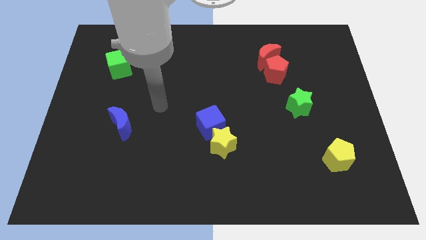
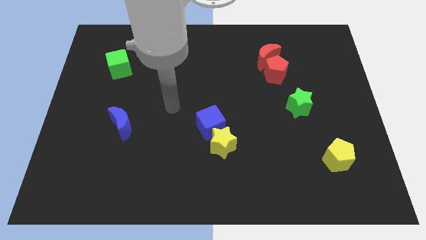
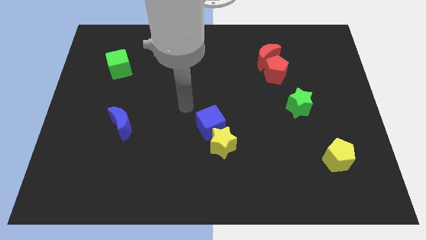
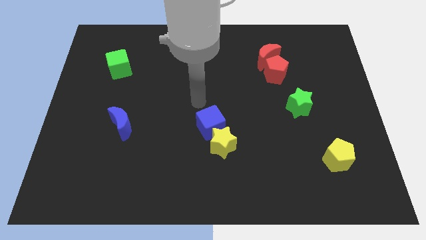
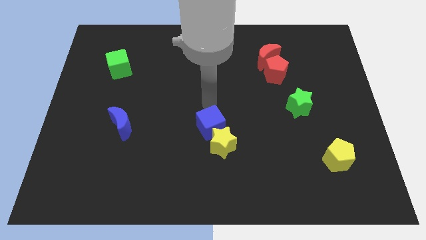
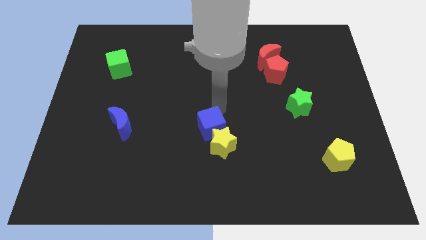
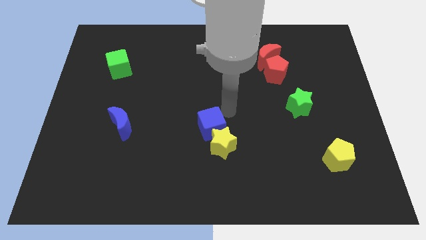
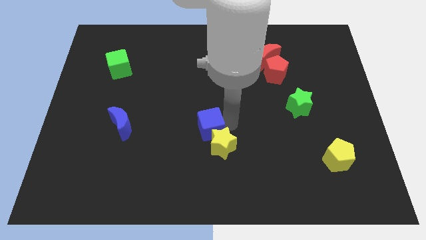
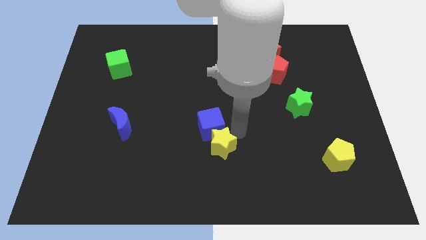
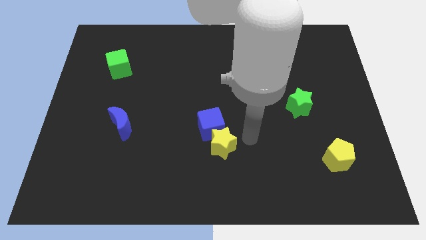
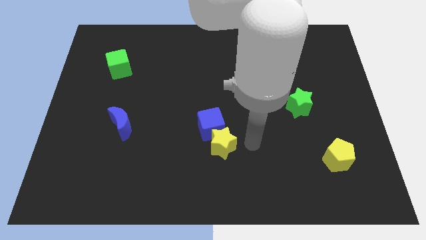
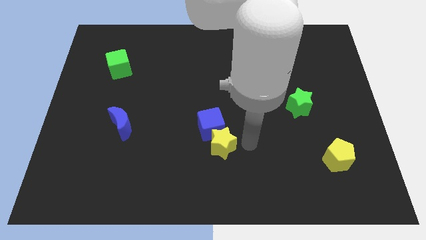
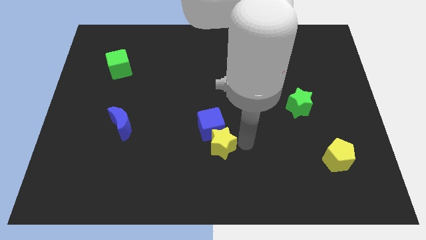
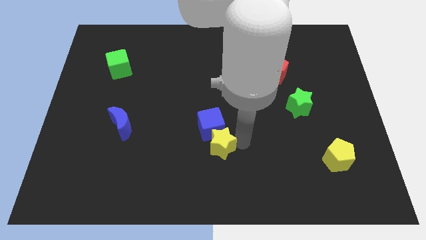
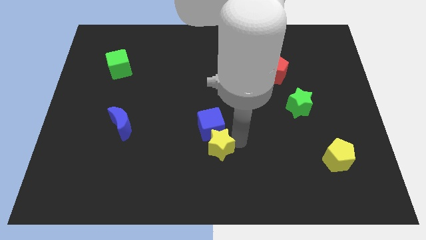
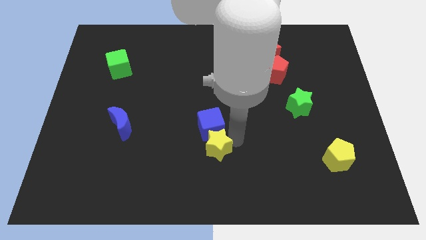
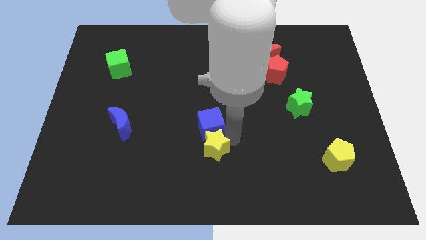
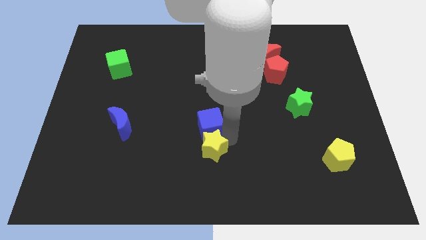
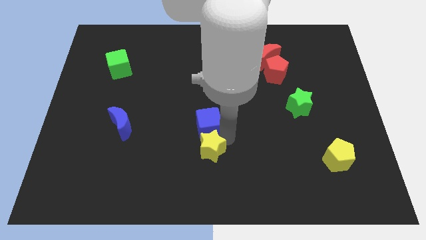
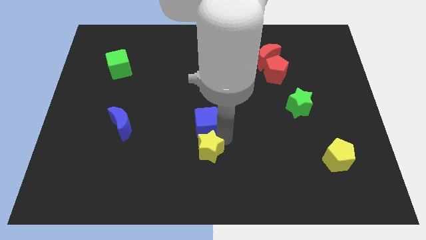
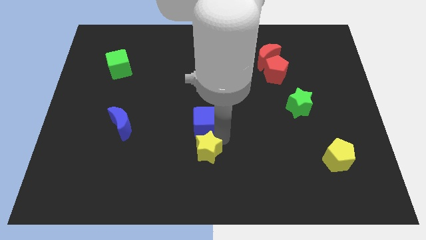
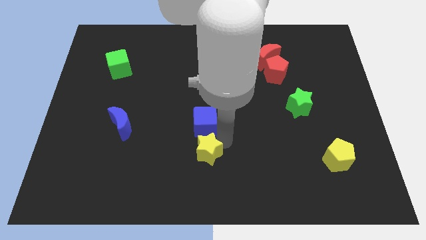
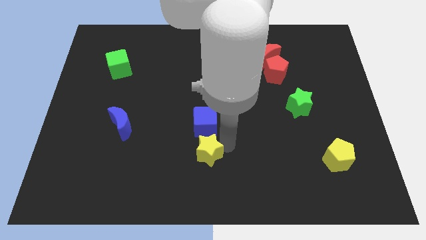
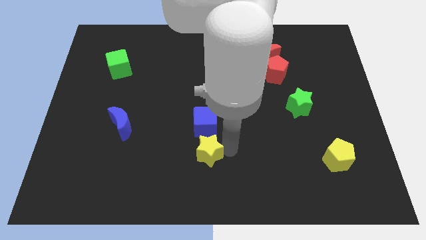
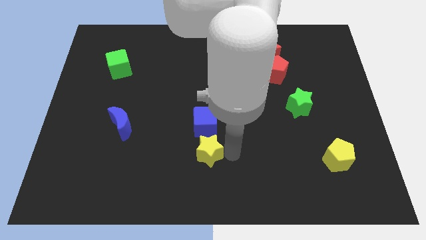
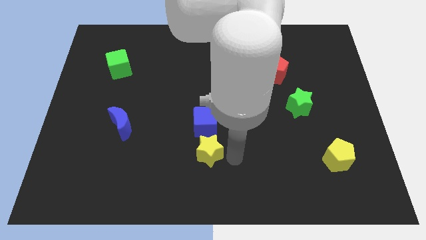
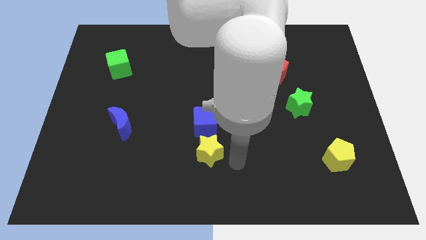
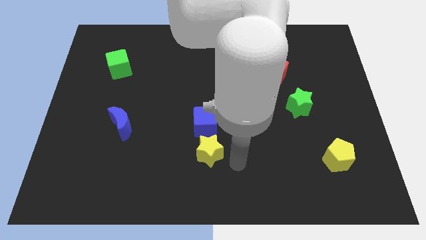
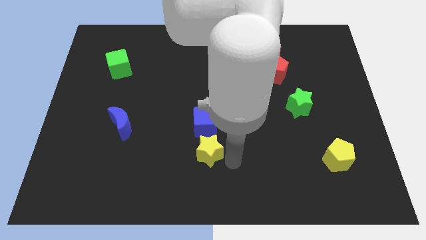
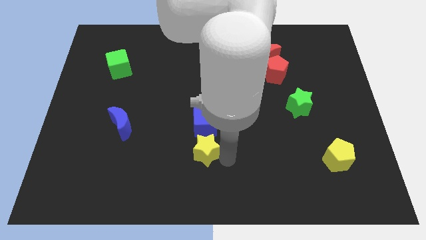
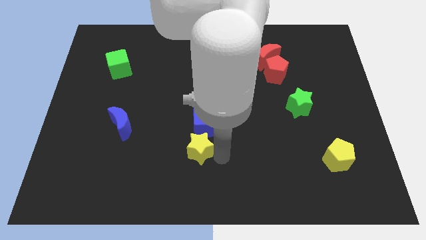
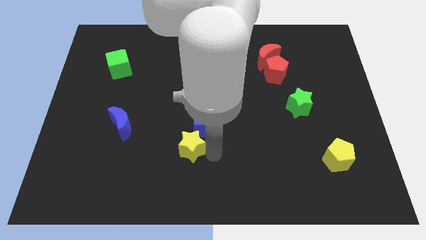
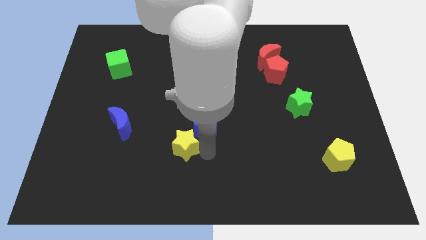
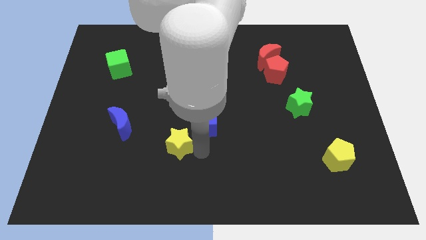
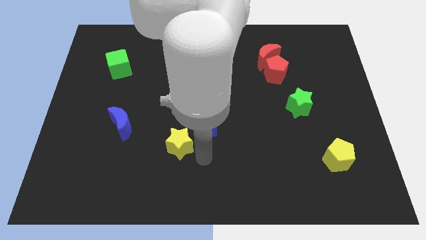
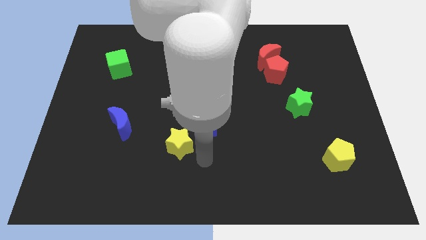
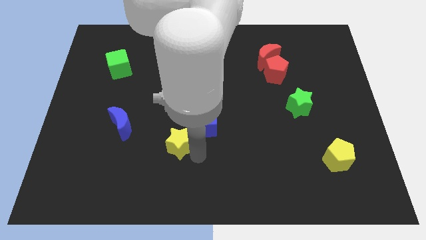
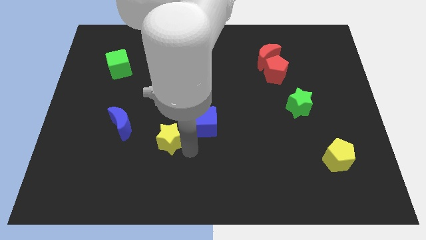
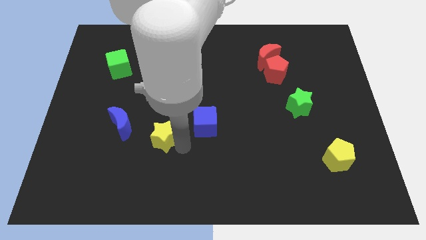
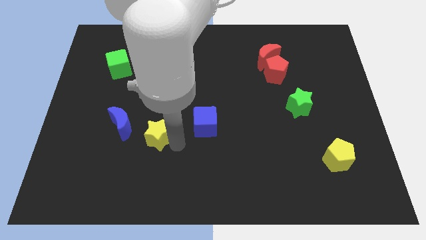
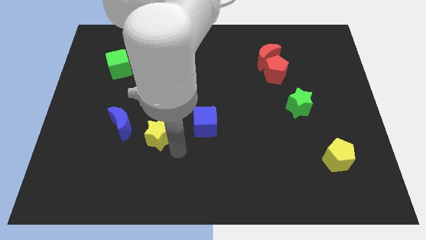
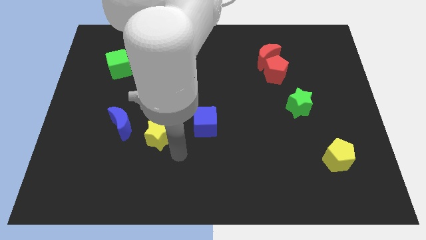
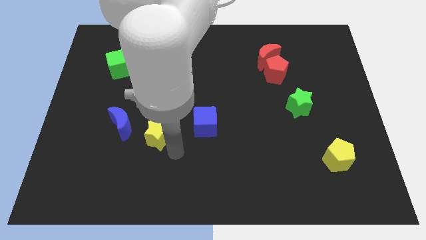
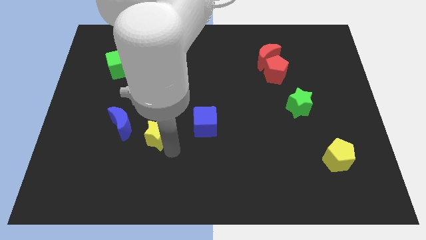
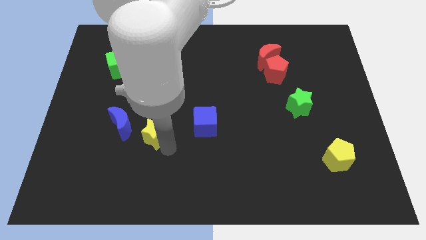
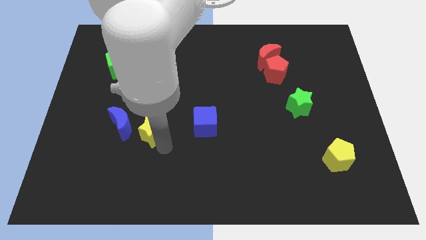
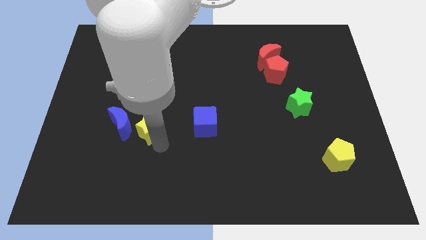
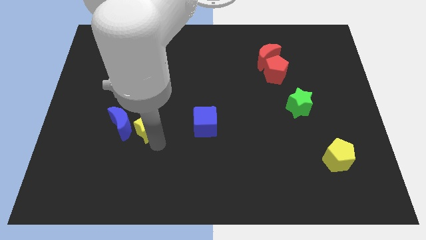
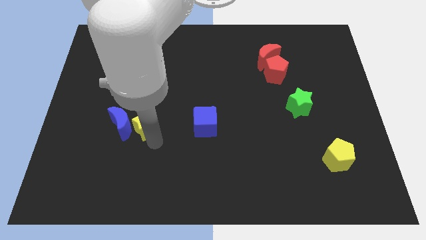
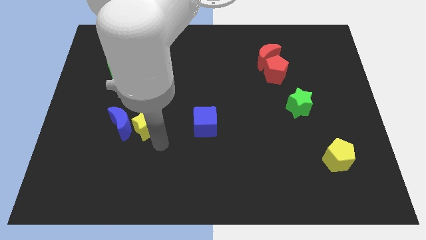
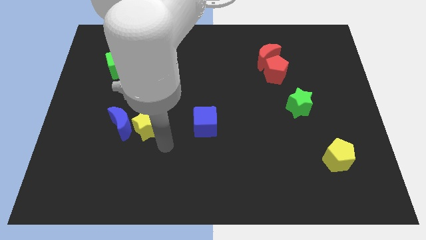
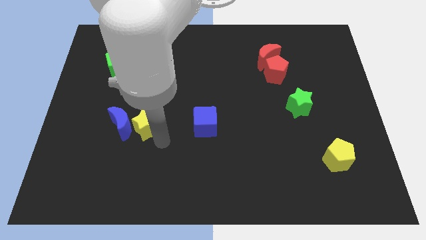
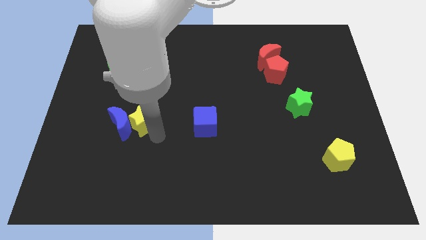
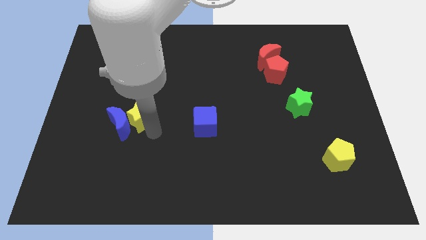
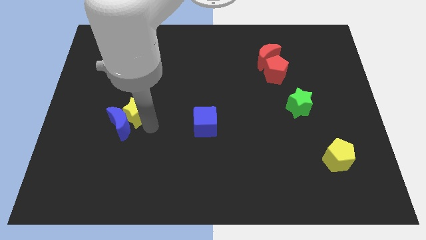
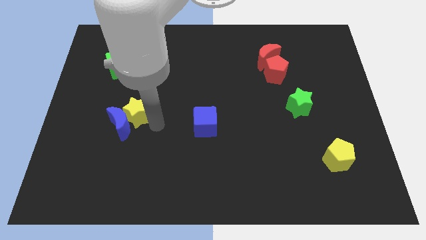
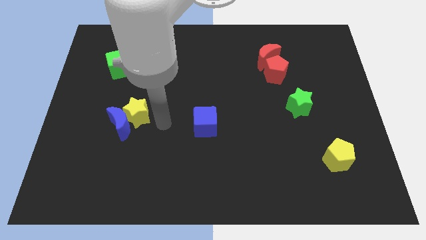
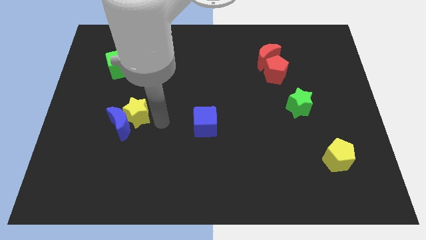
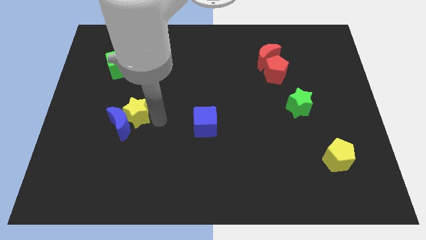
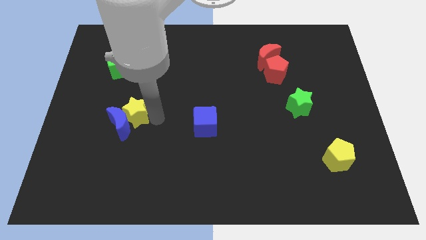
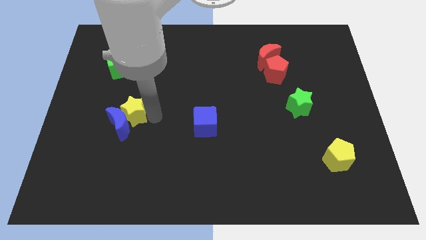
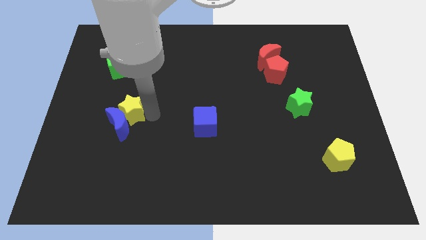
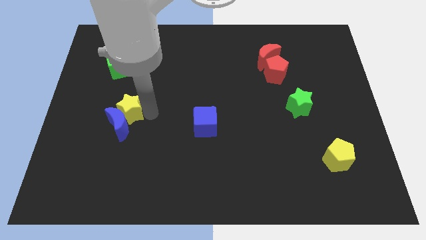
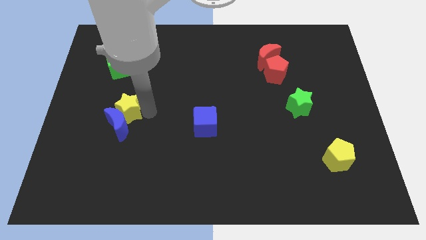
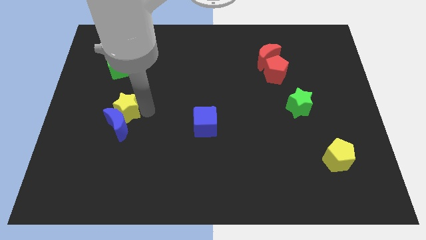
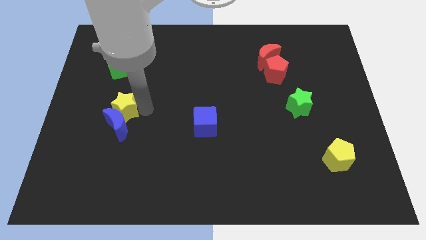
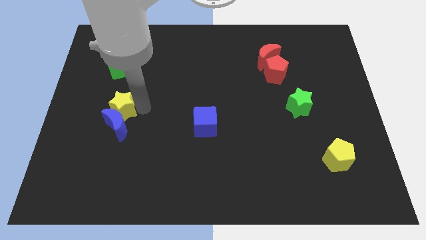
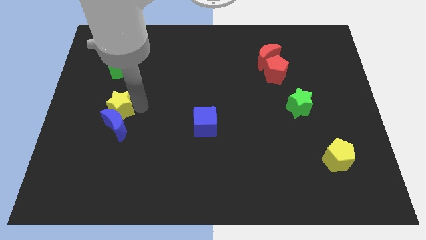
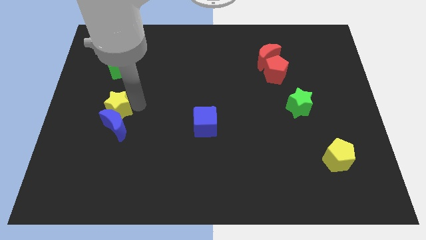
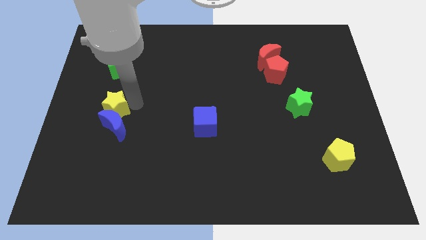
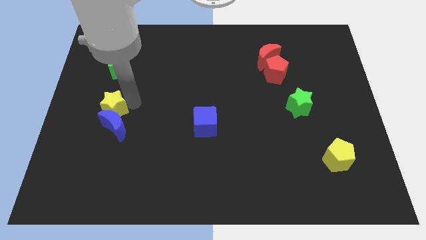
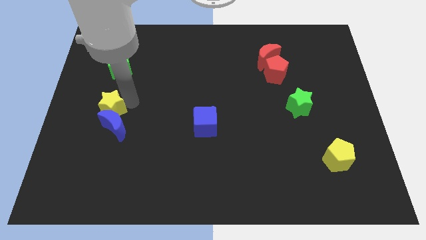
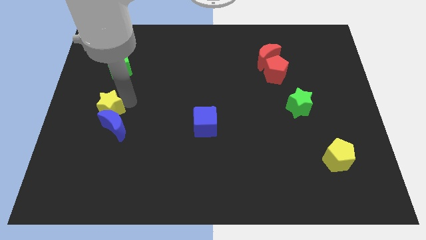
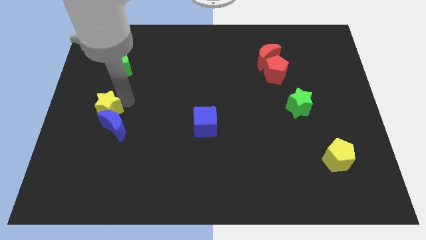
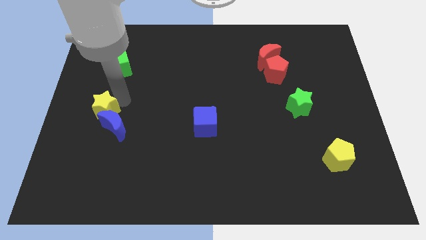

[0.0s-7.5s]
move the yellow star to the left side of the board

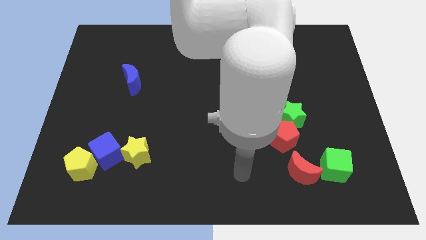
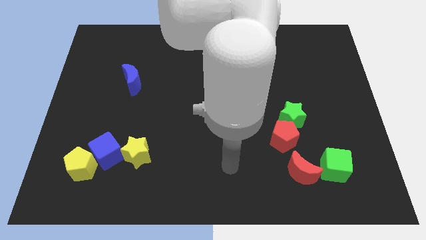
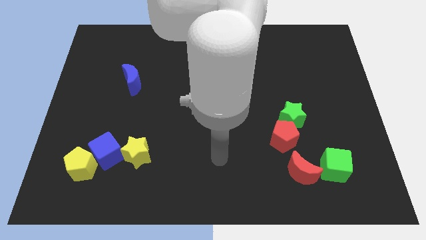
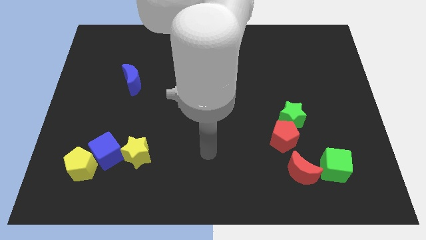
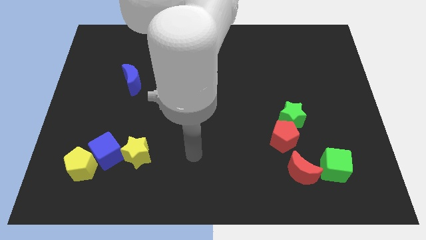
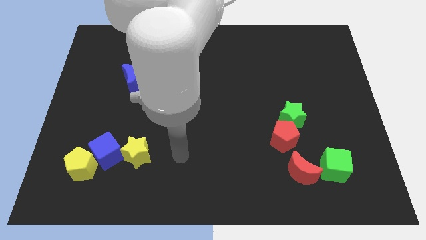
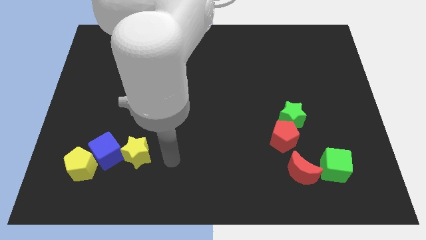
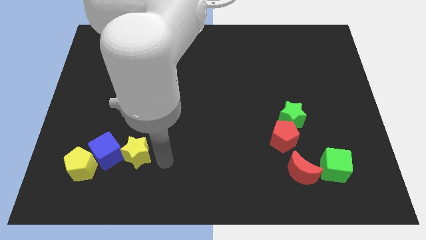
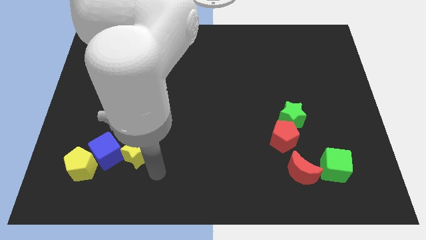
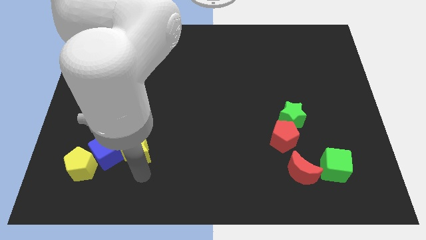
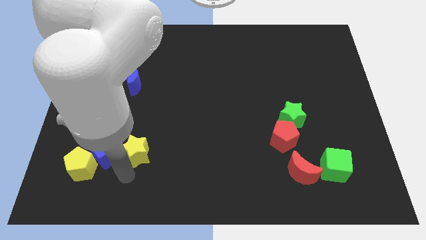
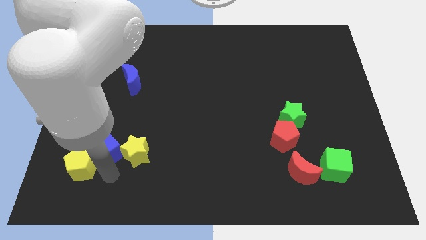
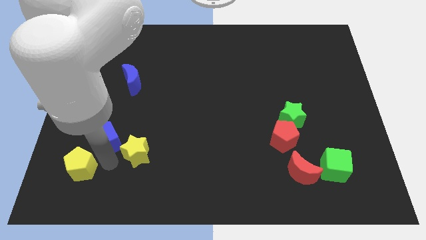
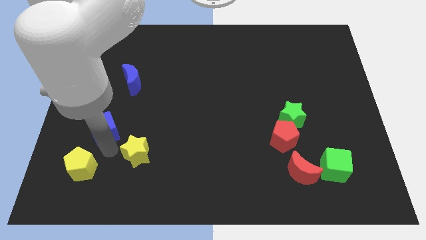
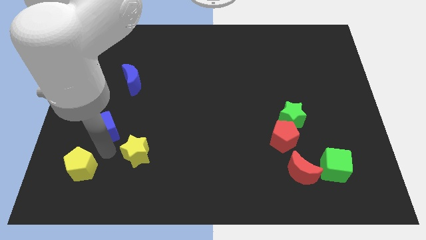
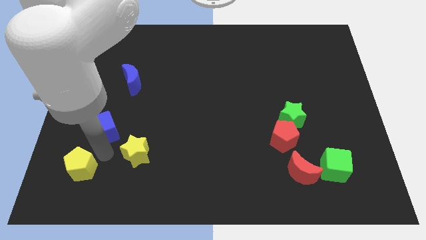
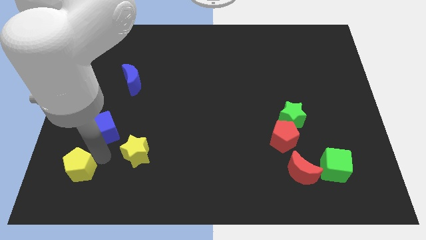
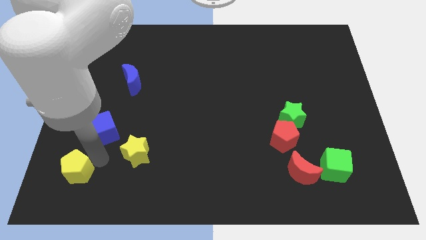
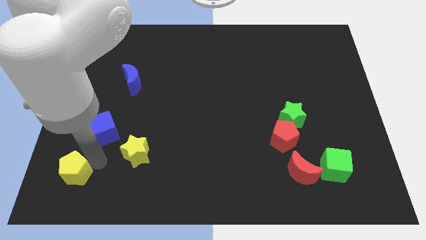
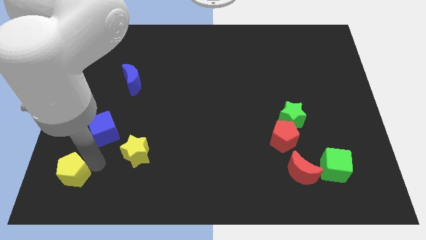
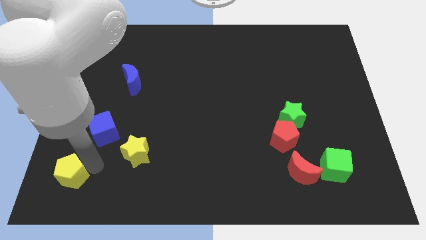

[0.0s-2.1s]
slide the yellow pentagon to the lower left corner
